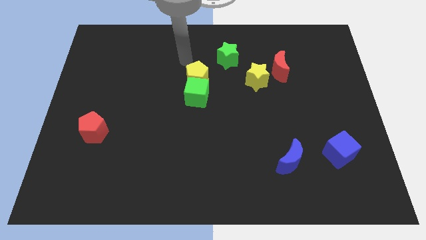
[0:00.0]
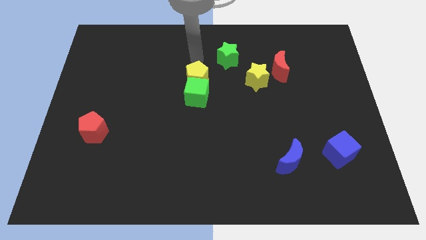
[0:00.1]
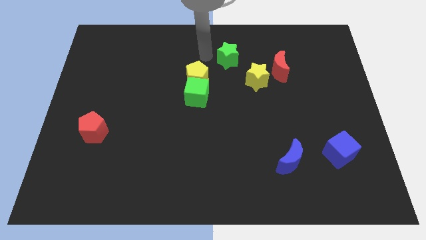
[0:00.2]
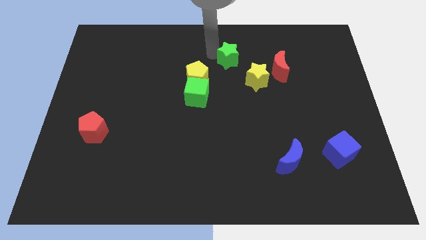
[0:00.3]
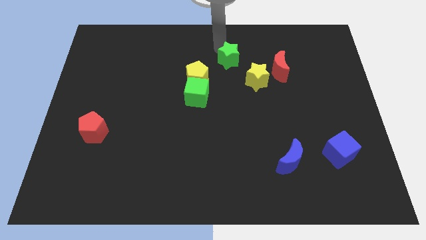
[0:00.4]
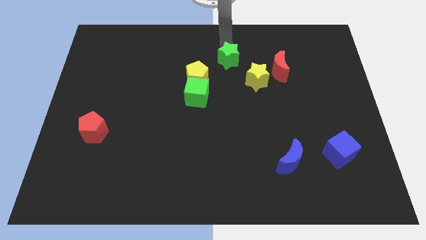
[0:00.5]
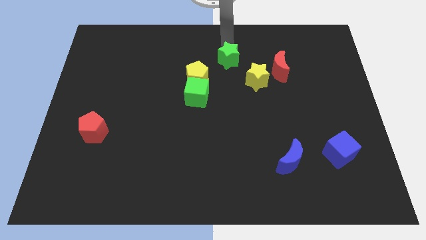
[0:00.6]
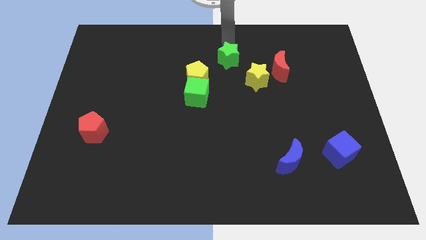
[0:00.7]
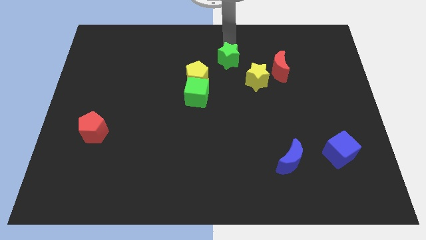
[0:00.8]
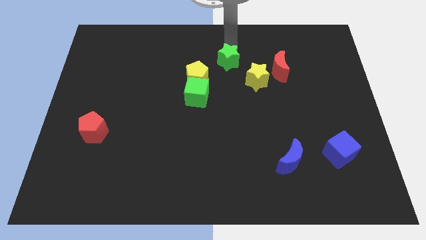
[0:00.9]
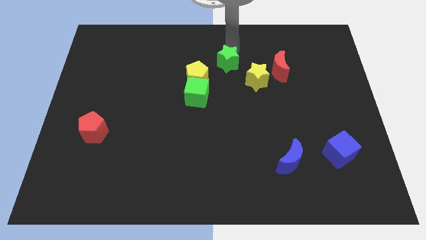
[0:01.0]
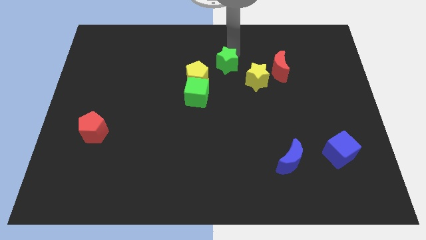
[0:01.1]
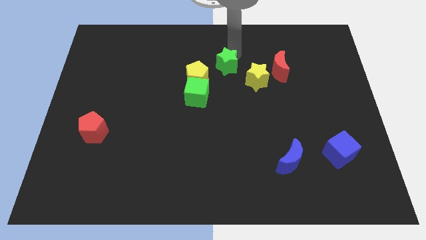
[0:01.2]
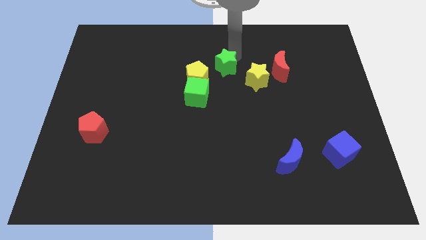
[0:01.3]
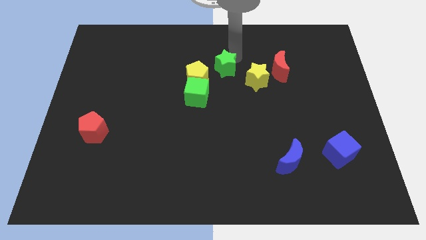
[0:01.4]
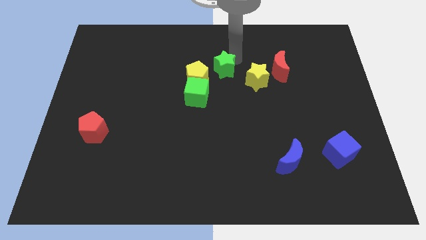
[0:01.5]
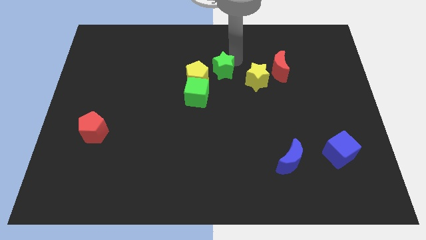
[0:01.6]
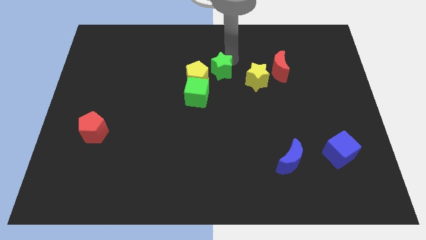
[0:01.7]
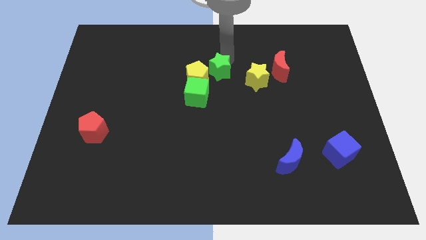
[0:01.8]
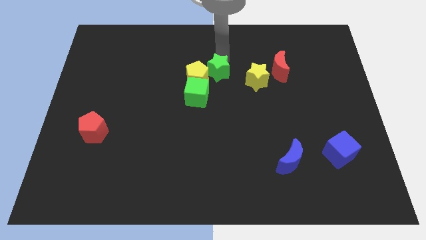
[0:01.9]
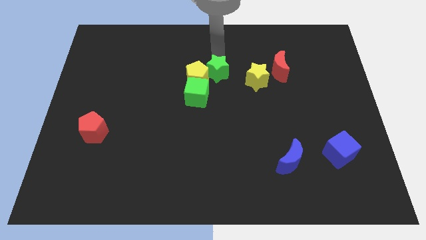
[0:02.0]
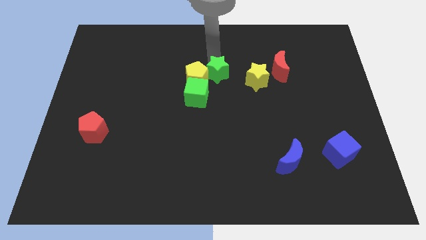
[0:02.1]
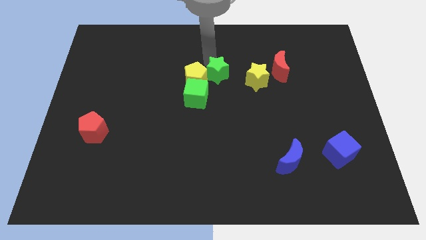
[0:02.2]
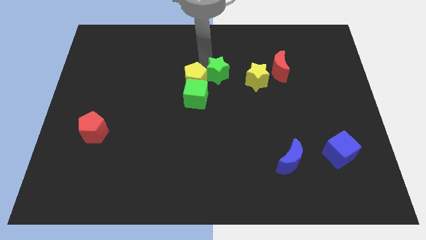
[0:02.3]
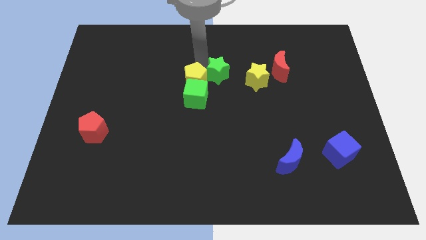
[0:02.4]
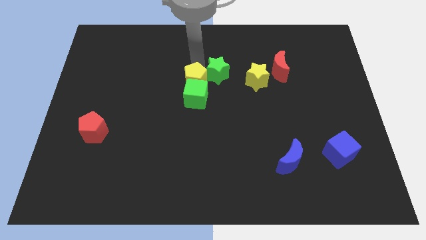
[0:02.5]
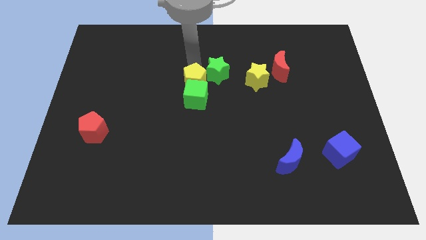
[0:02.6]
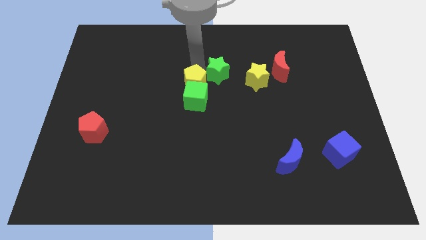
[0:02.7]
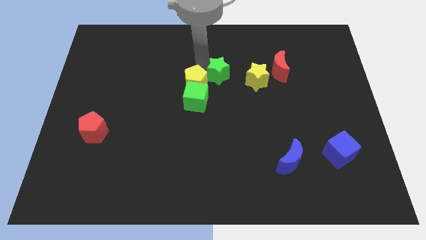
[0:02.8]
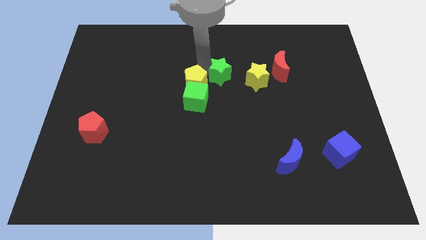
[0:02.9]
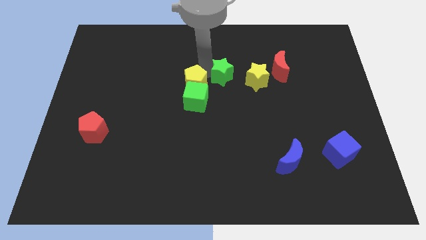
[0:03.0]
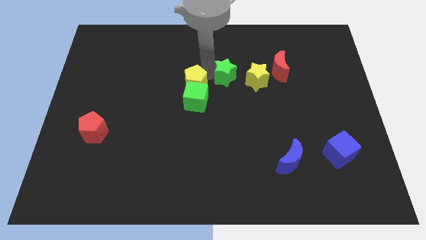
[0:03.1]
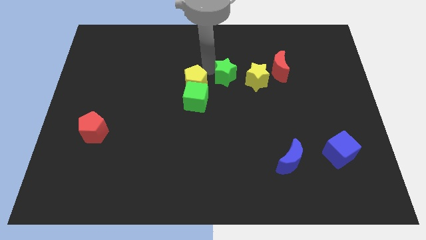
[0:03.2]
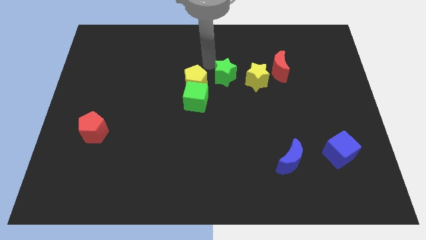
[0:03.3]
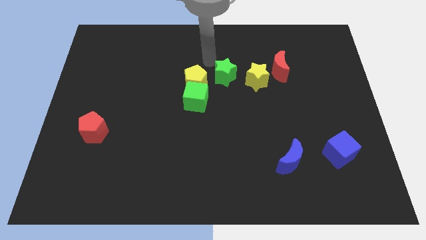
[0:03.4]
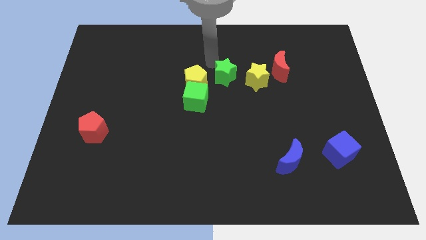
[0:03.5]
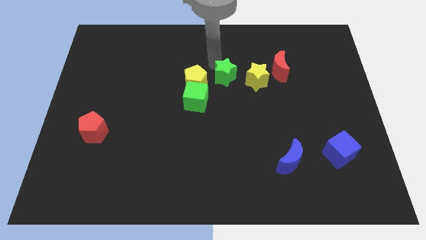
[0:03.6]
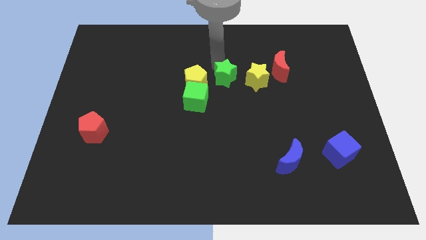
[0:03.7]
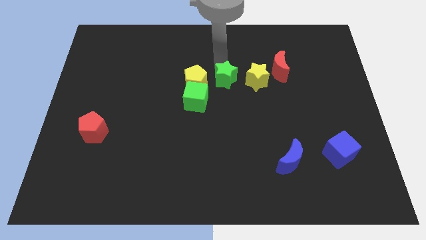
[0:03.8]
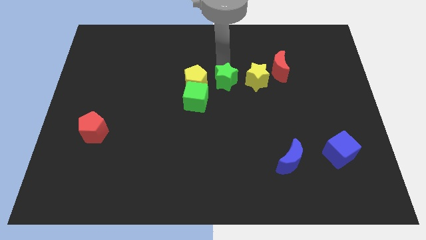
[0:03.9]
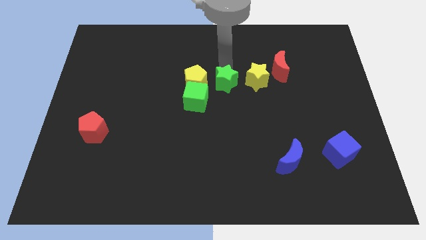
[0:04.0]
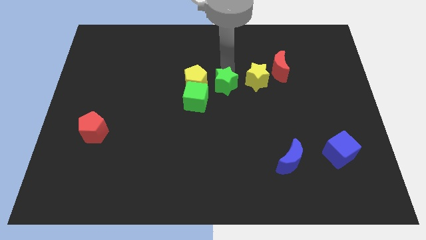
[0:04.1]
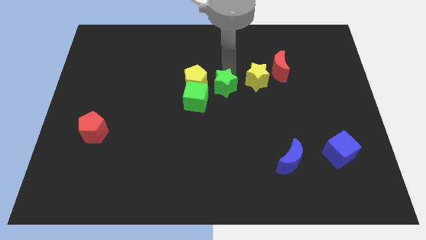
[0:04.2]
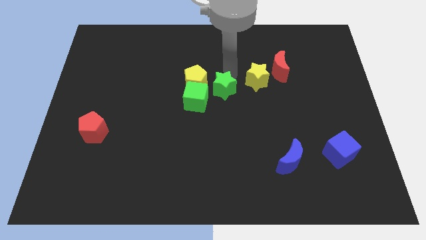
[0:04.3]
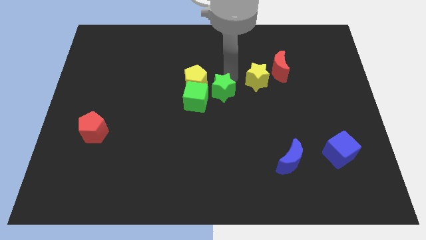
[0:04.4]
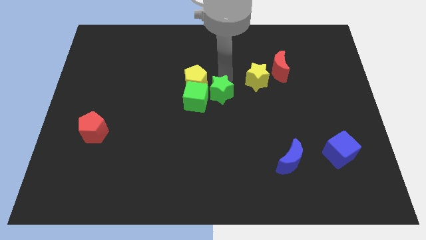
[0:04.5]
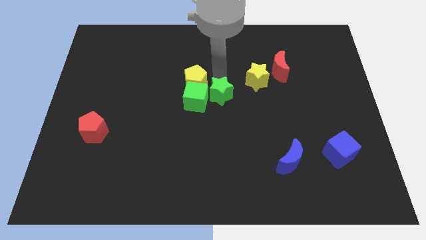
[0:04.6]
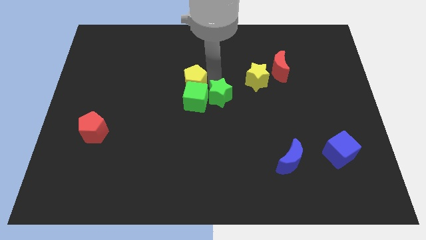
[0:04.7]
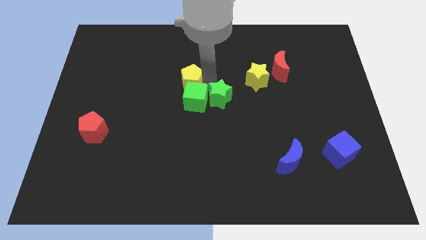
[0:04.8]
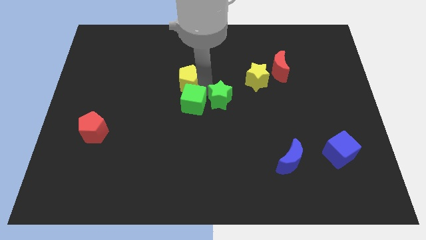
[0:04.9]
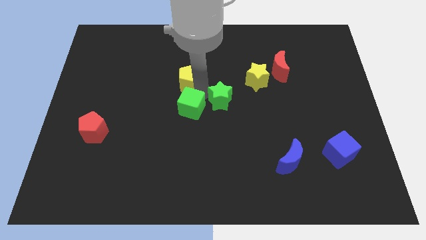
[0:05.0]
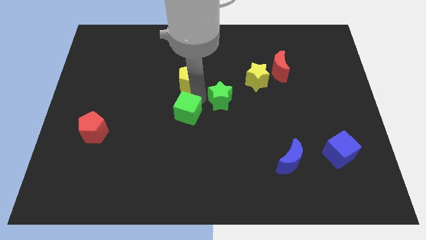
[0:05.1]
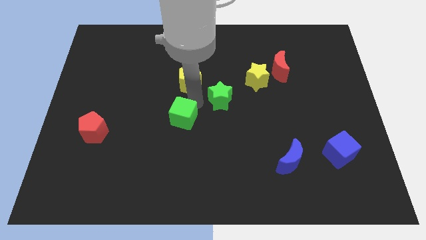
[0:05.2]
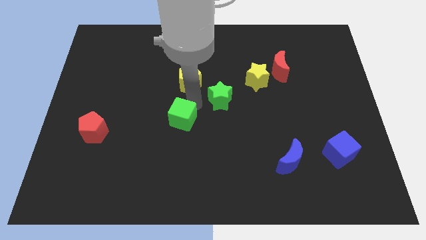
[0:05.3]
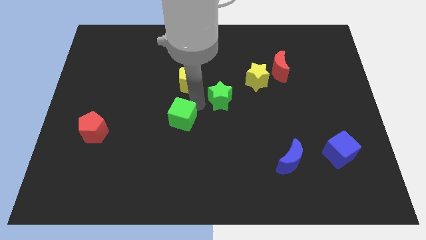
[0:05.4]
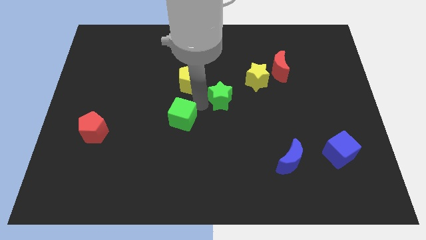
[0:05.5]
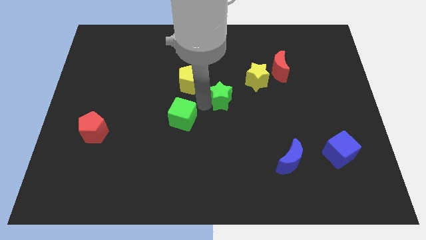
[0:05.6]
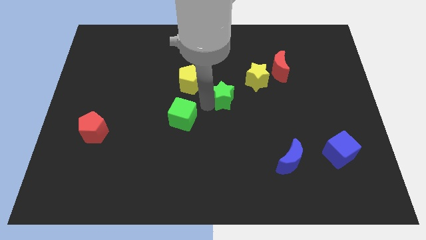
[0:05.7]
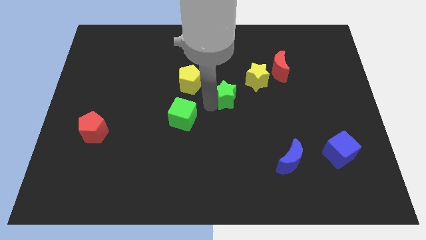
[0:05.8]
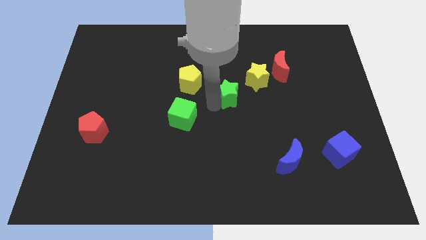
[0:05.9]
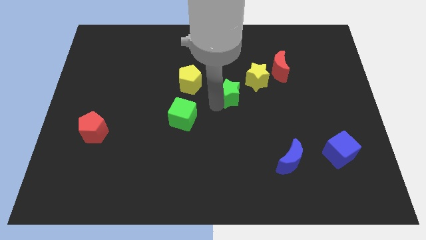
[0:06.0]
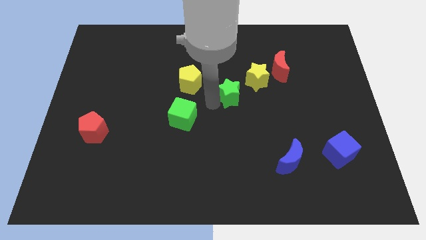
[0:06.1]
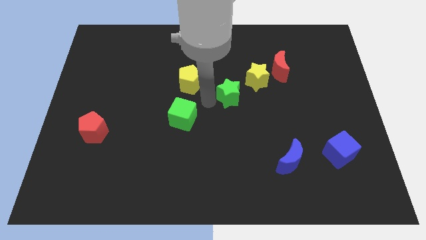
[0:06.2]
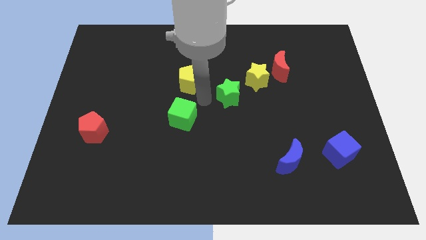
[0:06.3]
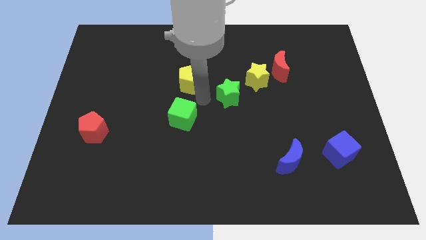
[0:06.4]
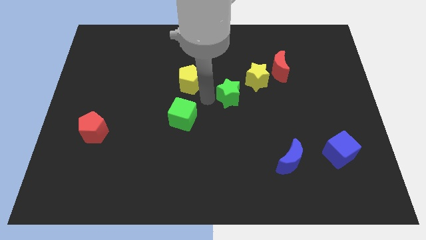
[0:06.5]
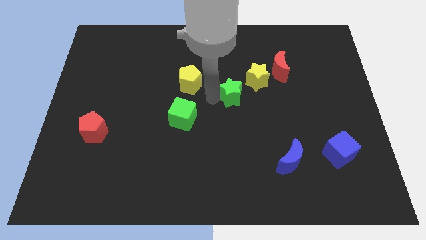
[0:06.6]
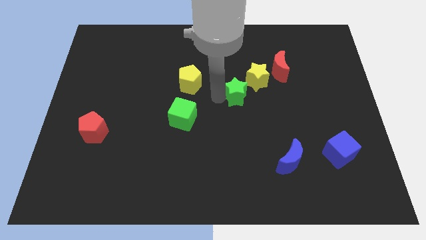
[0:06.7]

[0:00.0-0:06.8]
slightly move the green star downwards and then right

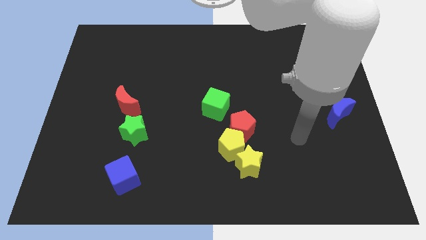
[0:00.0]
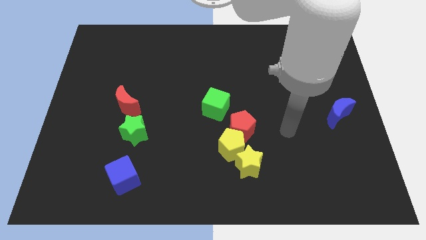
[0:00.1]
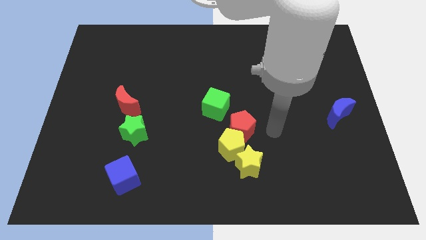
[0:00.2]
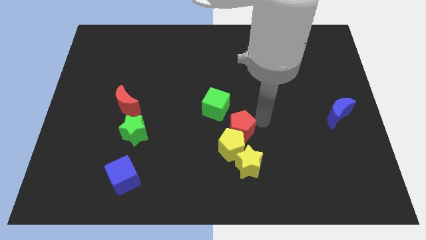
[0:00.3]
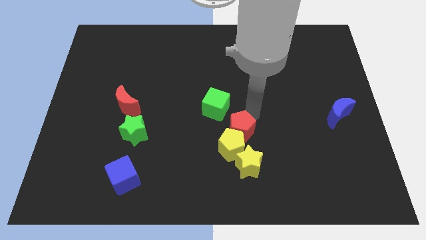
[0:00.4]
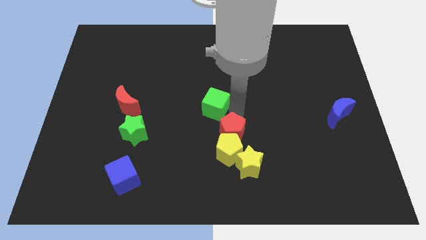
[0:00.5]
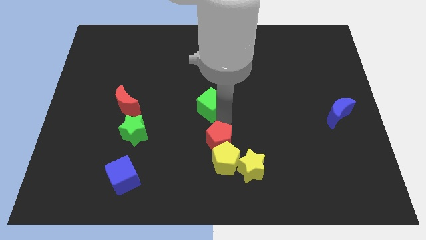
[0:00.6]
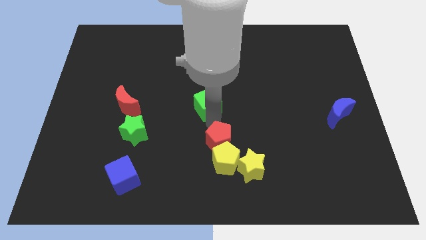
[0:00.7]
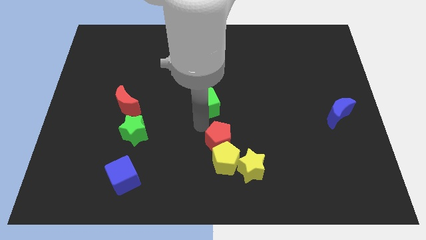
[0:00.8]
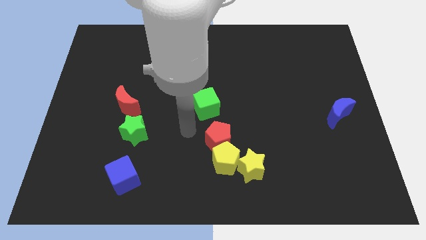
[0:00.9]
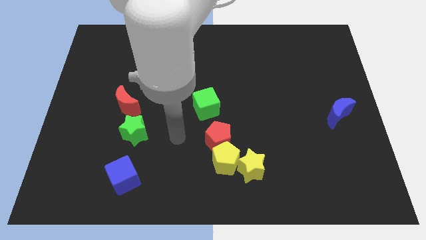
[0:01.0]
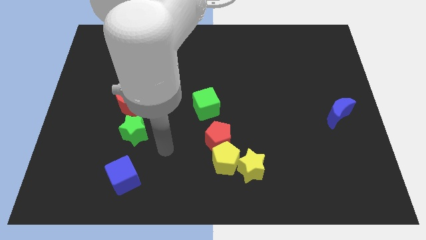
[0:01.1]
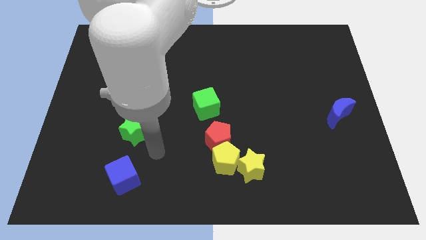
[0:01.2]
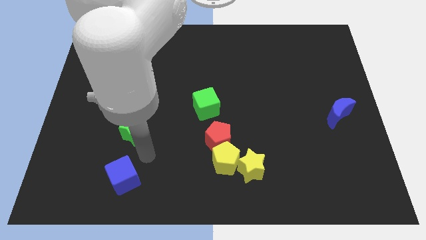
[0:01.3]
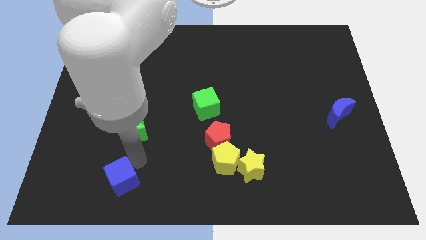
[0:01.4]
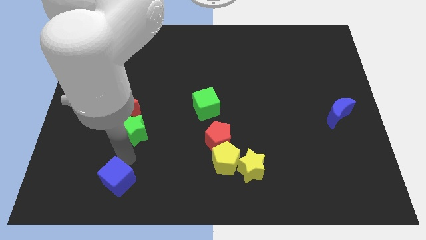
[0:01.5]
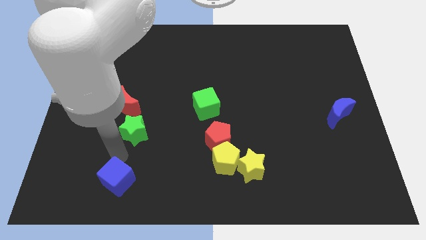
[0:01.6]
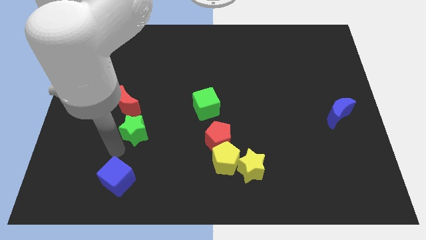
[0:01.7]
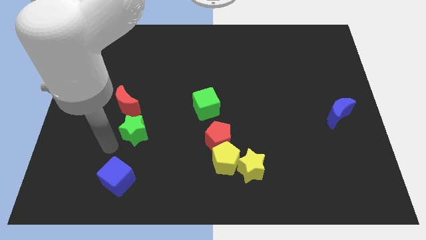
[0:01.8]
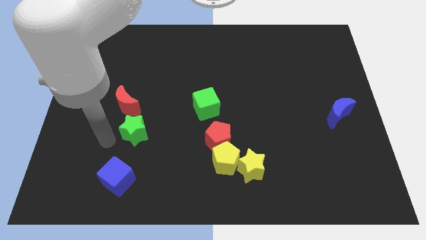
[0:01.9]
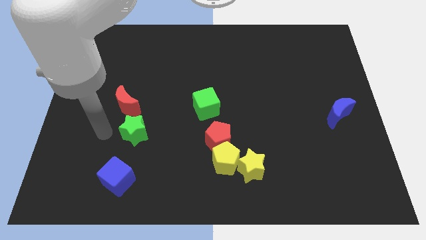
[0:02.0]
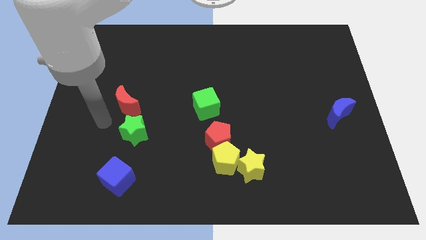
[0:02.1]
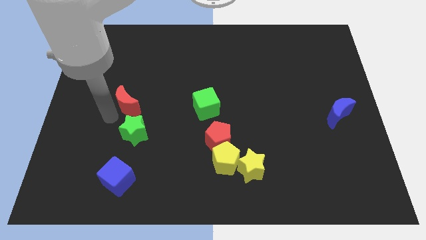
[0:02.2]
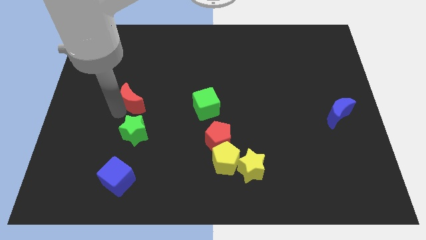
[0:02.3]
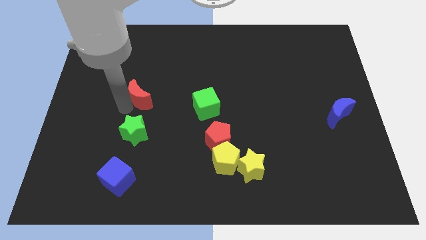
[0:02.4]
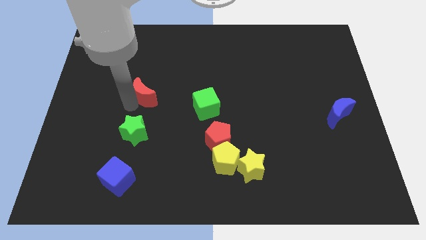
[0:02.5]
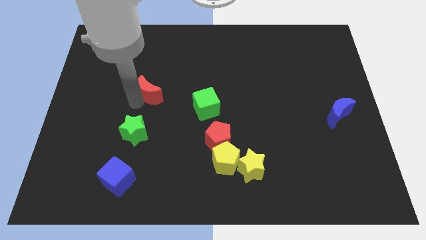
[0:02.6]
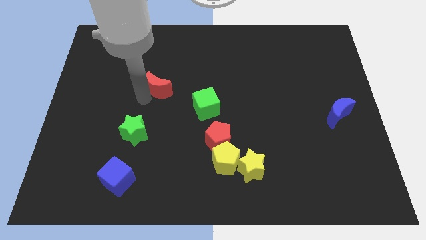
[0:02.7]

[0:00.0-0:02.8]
slightly move the red moon upwards and right diagonally
